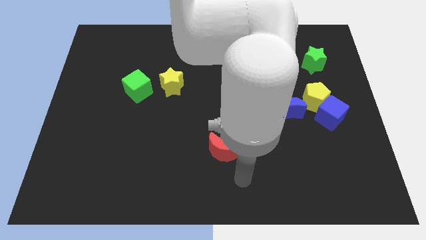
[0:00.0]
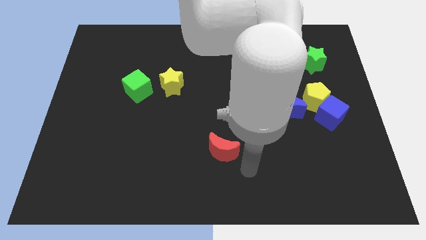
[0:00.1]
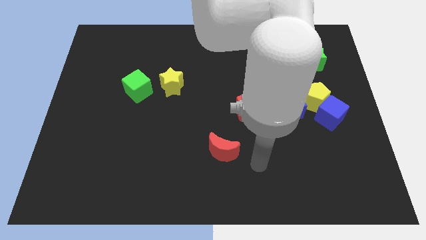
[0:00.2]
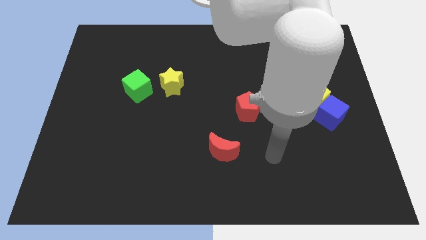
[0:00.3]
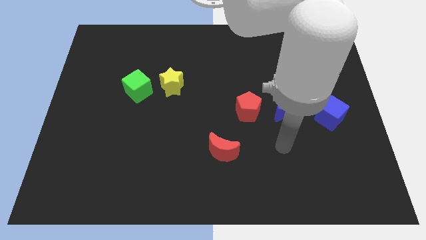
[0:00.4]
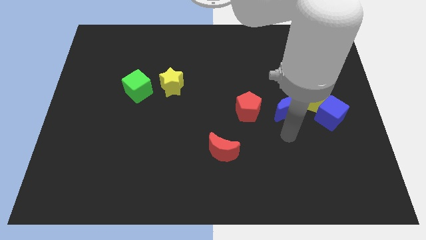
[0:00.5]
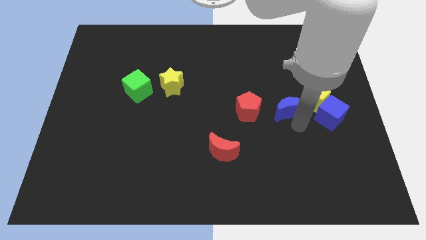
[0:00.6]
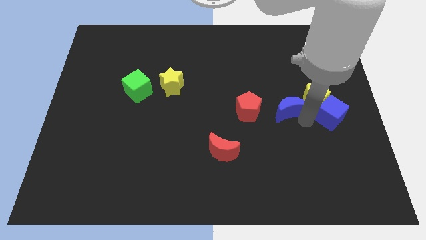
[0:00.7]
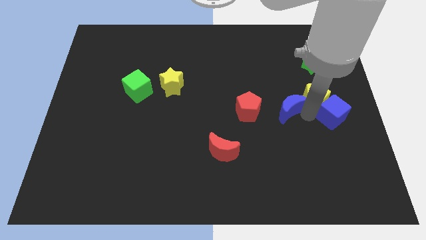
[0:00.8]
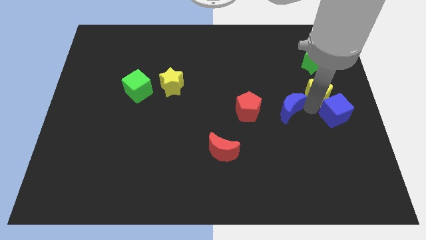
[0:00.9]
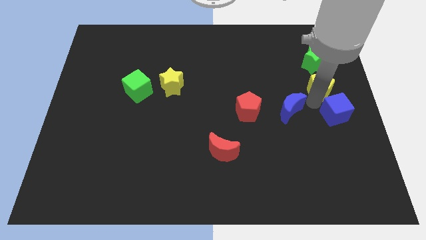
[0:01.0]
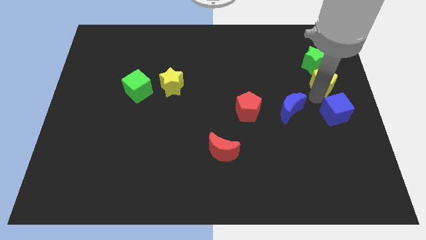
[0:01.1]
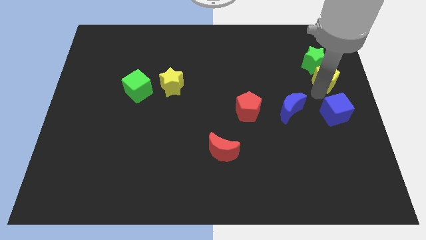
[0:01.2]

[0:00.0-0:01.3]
separate the yellow pentagon from the blue cube and blue moon

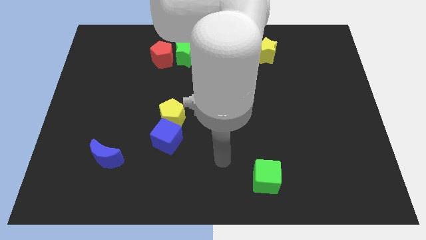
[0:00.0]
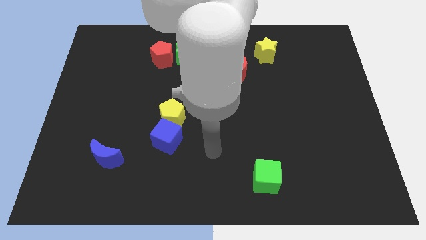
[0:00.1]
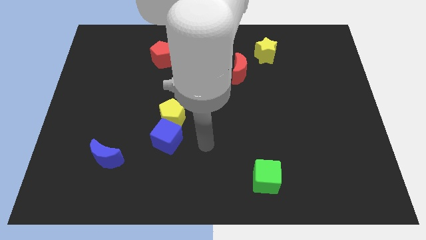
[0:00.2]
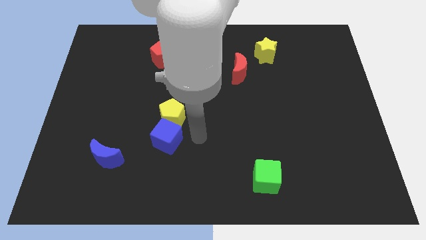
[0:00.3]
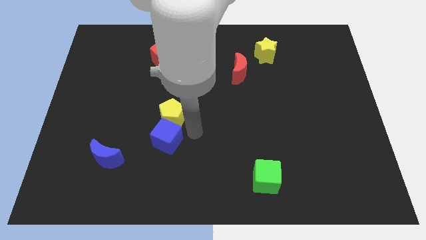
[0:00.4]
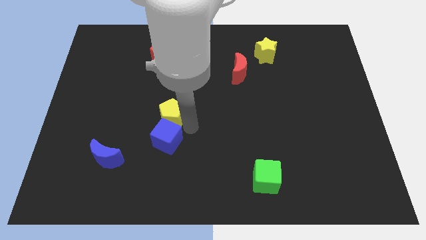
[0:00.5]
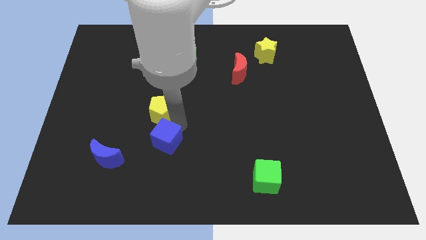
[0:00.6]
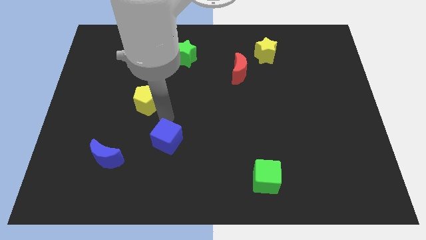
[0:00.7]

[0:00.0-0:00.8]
move the blue cube away from the yellow pentagon

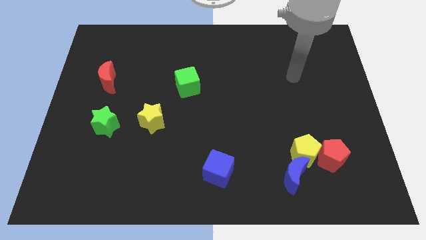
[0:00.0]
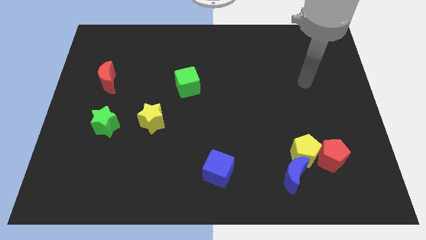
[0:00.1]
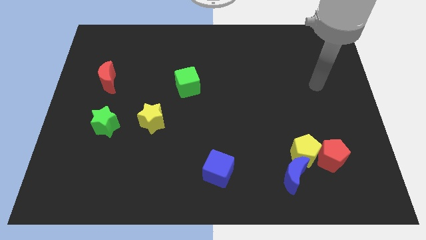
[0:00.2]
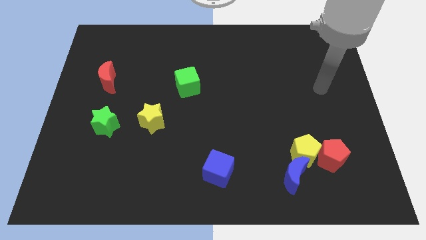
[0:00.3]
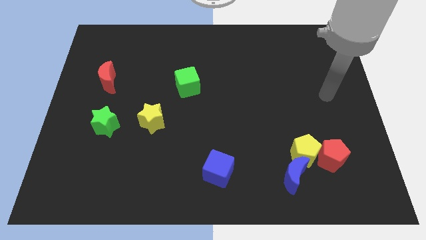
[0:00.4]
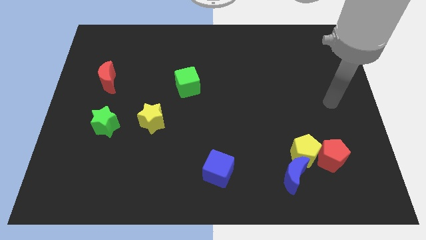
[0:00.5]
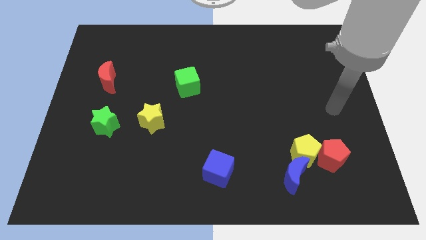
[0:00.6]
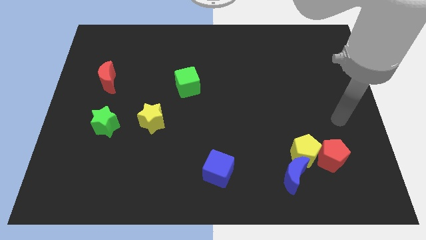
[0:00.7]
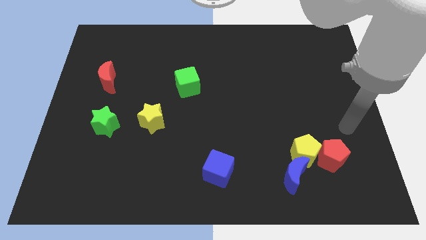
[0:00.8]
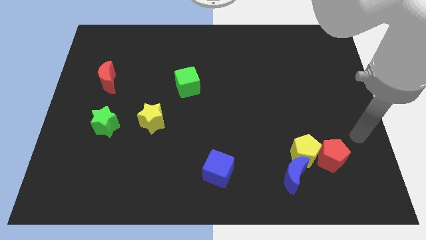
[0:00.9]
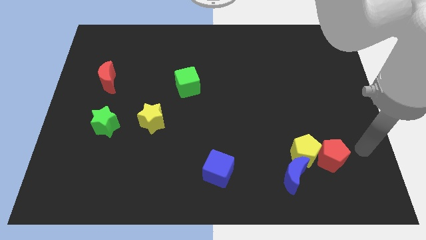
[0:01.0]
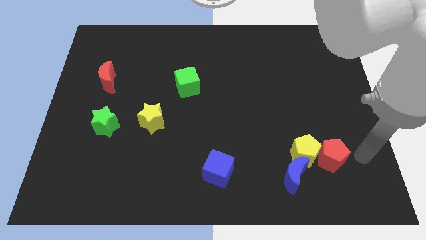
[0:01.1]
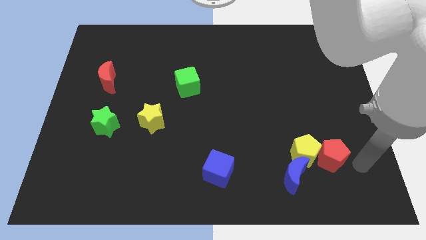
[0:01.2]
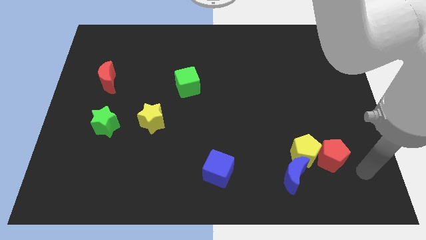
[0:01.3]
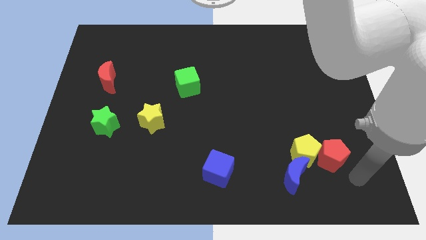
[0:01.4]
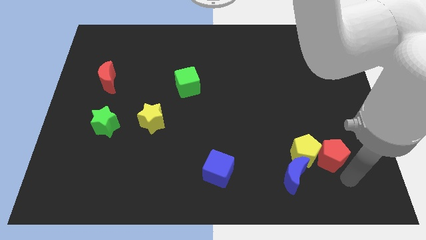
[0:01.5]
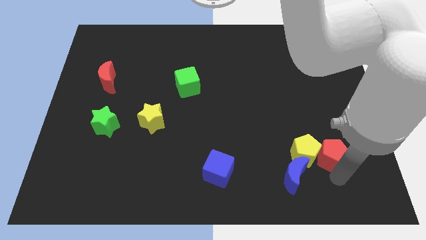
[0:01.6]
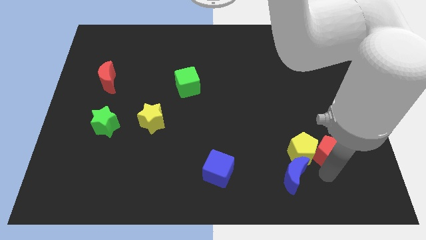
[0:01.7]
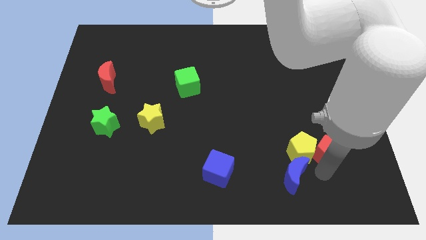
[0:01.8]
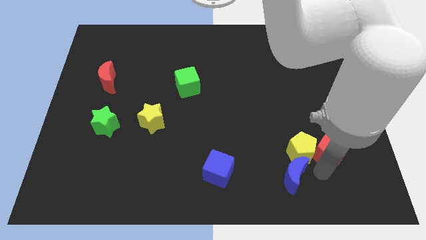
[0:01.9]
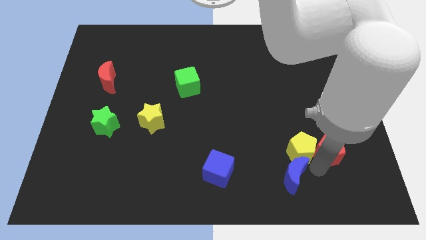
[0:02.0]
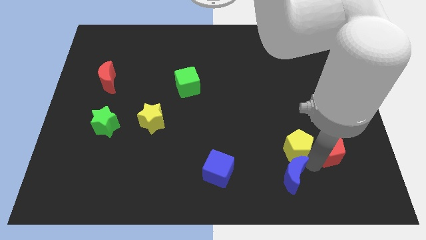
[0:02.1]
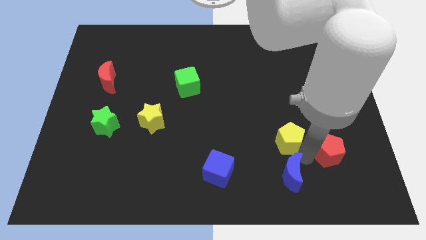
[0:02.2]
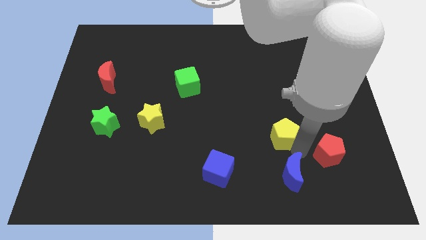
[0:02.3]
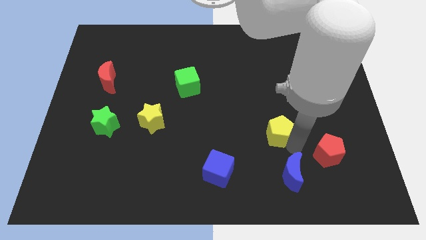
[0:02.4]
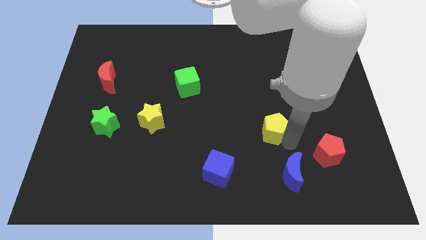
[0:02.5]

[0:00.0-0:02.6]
move the yellow pentagon away from the red pentagon and blue moon

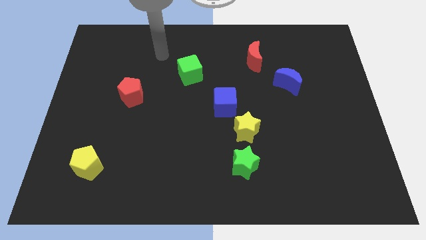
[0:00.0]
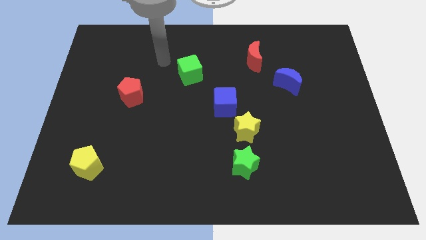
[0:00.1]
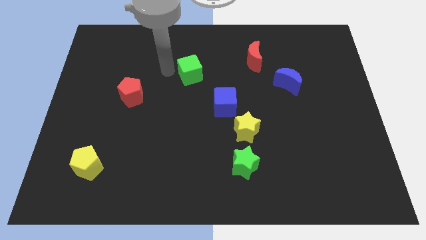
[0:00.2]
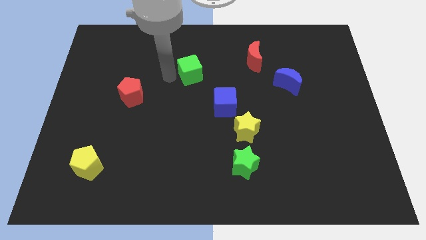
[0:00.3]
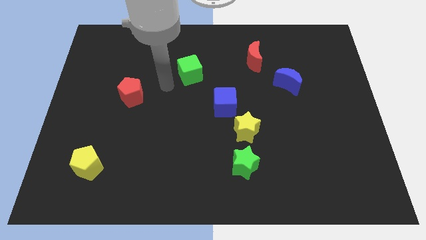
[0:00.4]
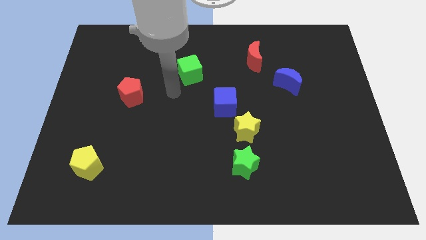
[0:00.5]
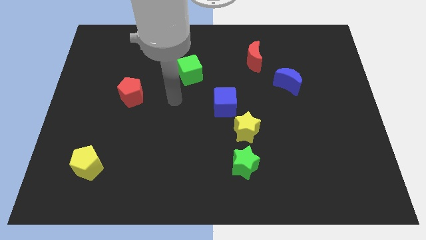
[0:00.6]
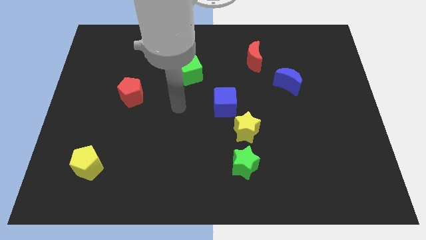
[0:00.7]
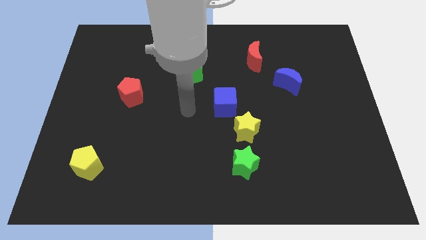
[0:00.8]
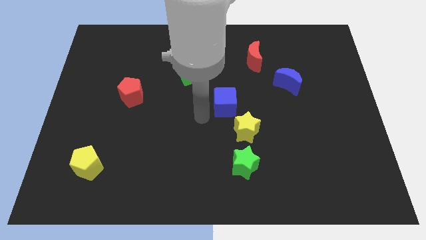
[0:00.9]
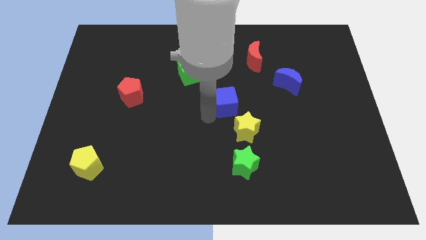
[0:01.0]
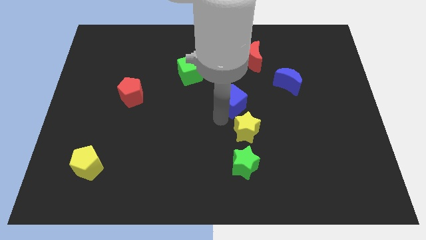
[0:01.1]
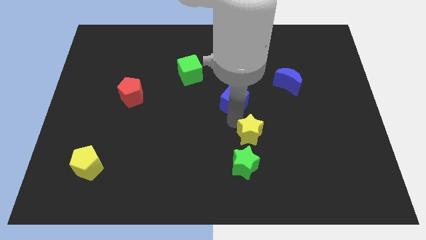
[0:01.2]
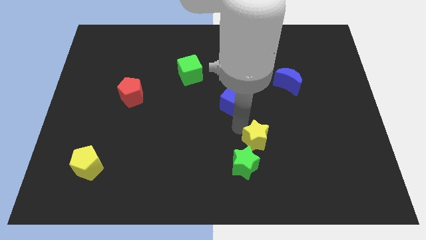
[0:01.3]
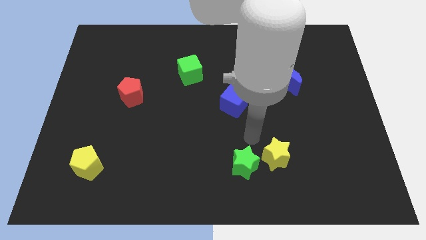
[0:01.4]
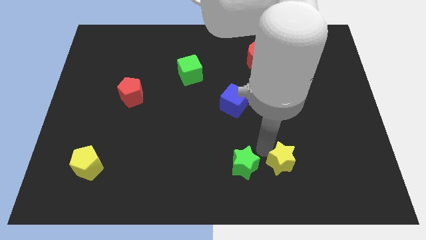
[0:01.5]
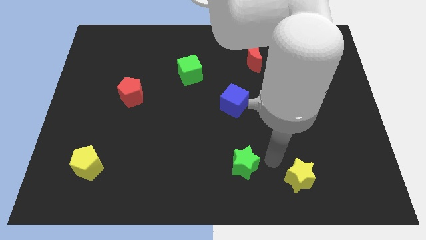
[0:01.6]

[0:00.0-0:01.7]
move the green star away from the yellow star

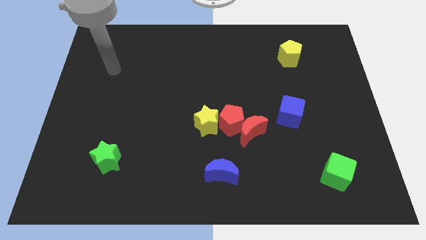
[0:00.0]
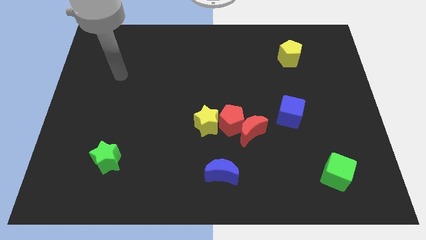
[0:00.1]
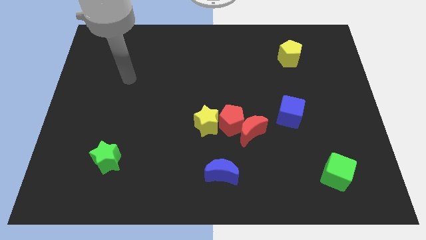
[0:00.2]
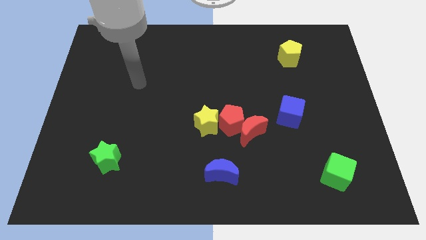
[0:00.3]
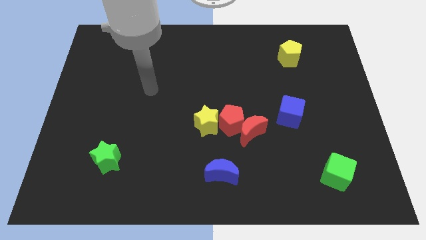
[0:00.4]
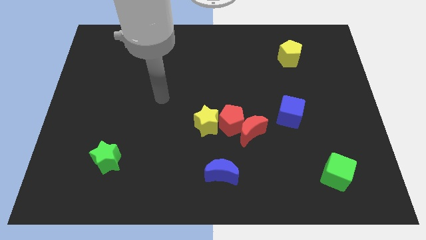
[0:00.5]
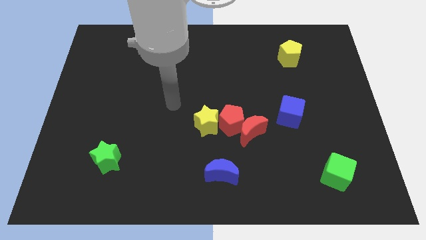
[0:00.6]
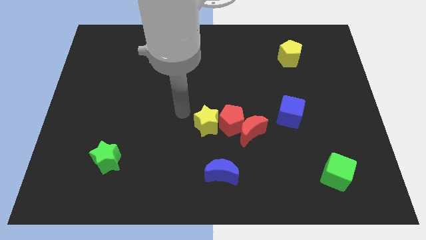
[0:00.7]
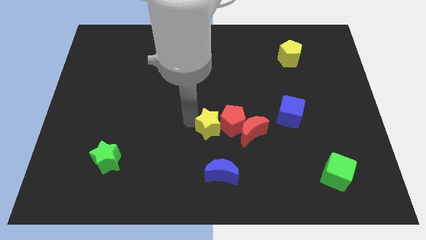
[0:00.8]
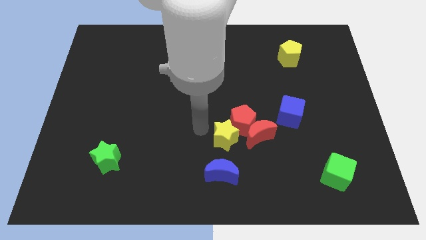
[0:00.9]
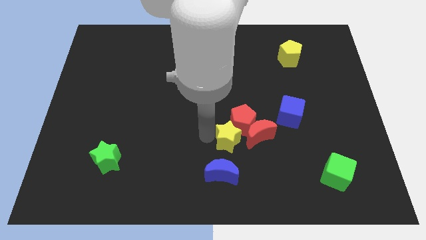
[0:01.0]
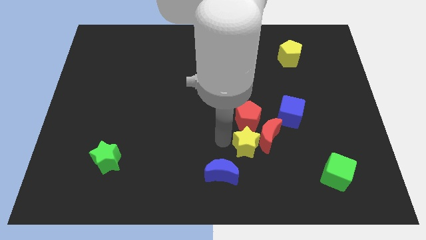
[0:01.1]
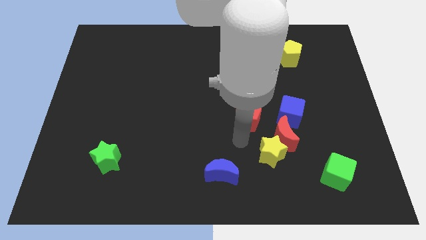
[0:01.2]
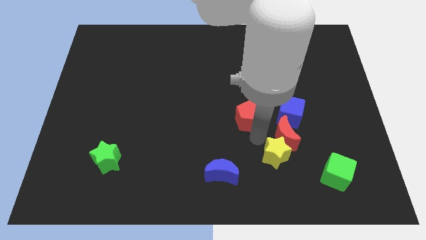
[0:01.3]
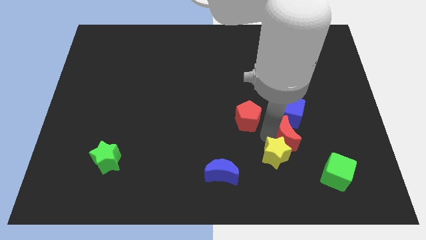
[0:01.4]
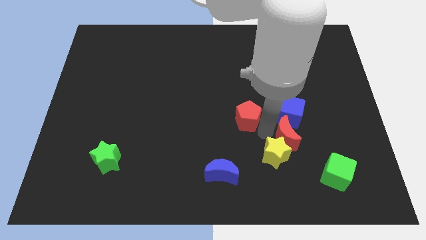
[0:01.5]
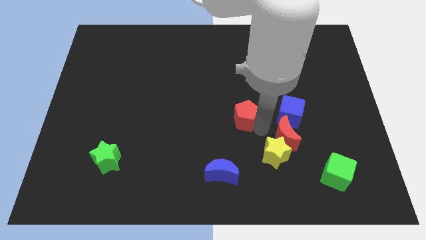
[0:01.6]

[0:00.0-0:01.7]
move the red pentagon away from the red moon and yellow star

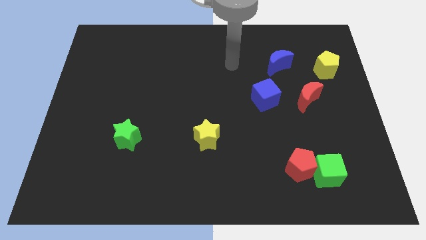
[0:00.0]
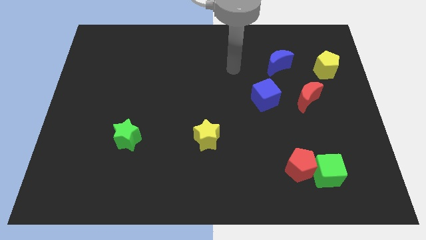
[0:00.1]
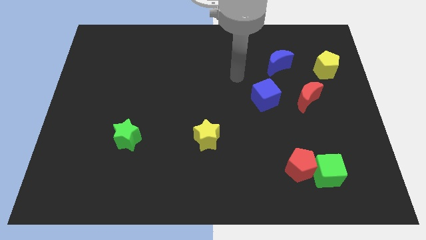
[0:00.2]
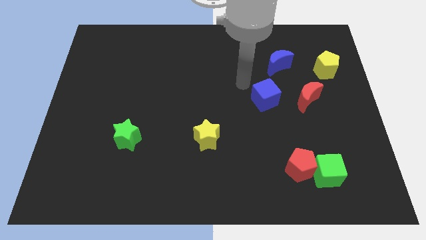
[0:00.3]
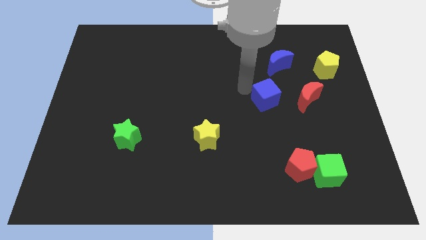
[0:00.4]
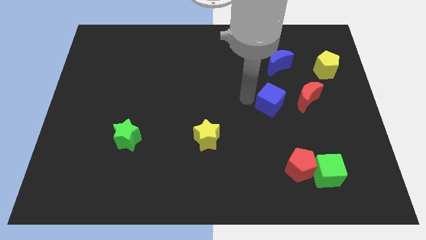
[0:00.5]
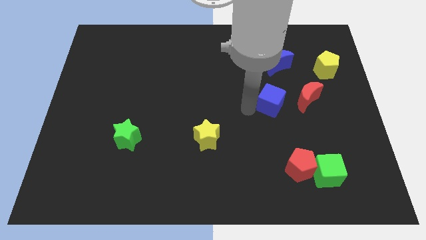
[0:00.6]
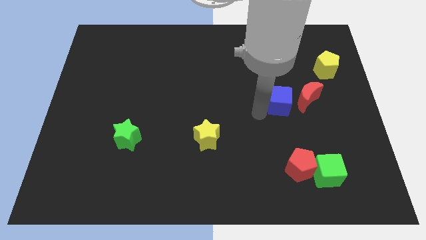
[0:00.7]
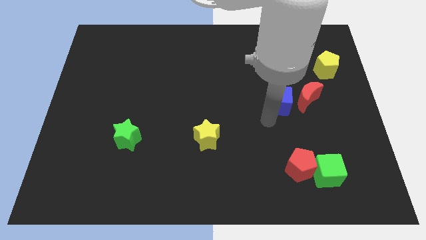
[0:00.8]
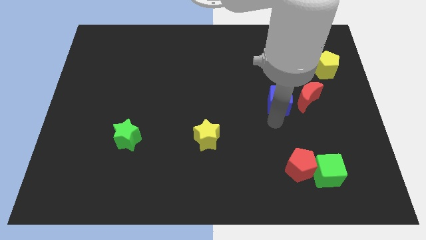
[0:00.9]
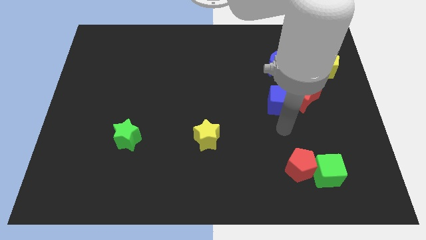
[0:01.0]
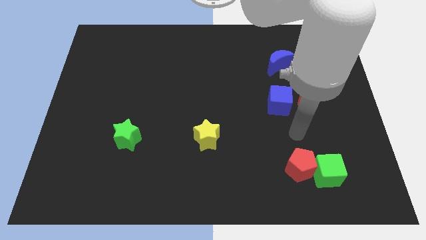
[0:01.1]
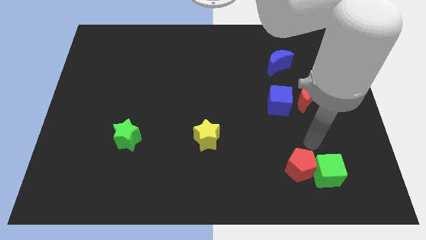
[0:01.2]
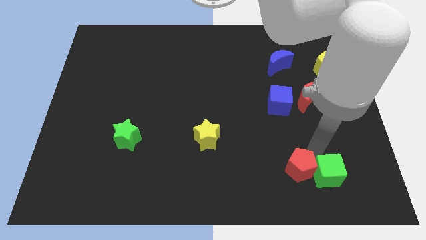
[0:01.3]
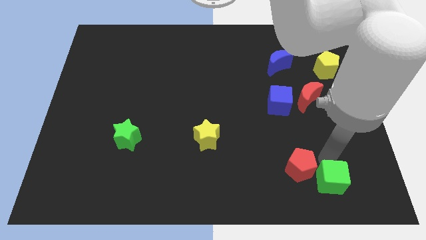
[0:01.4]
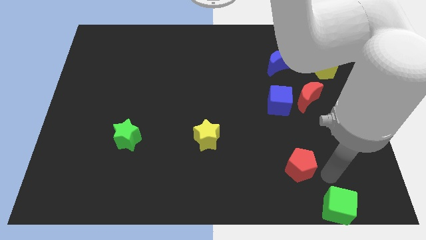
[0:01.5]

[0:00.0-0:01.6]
separate the red pentagon from the green cube
